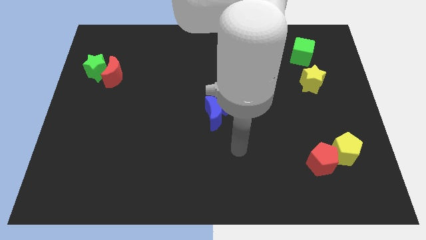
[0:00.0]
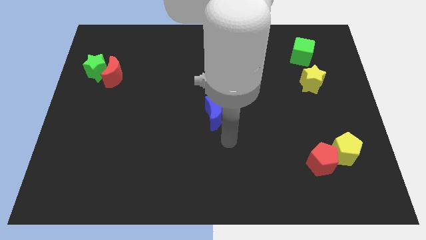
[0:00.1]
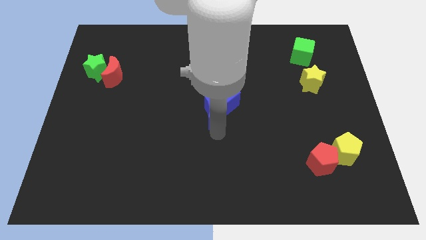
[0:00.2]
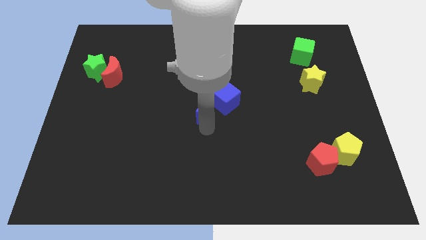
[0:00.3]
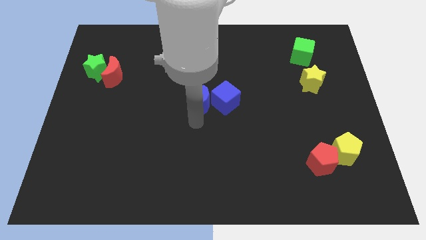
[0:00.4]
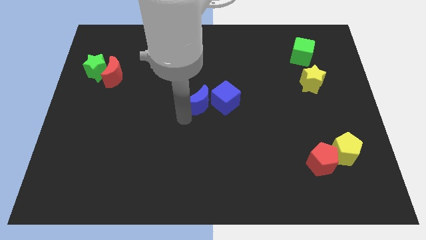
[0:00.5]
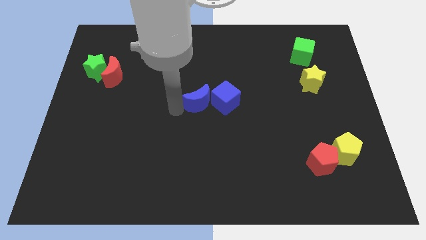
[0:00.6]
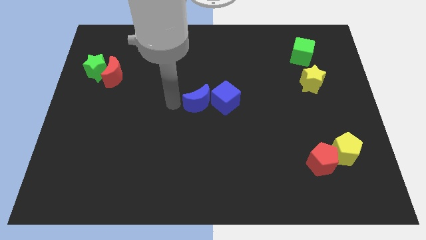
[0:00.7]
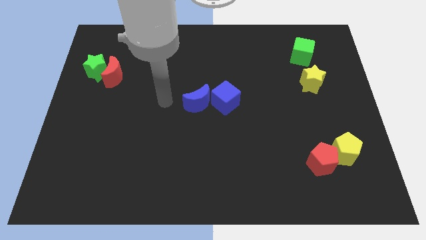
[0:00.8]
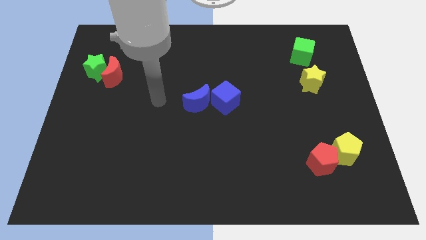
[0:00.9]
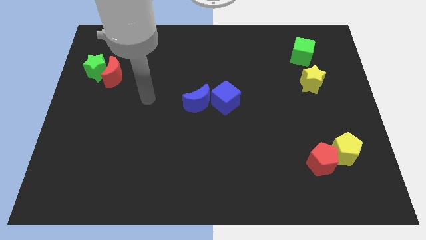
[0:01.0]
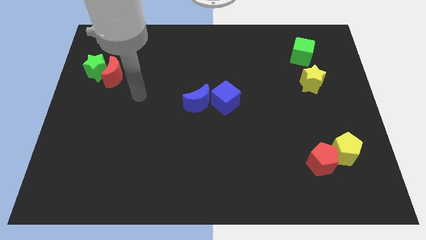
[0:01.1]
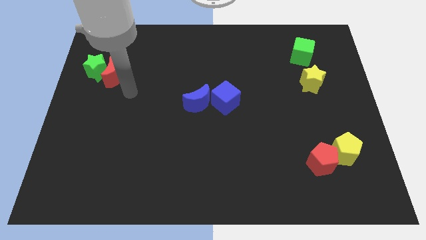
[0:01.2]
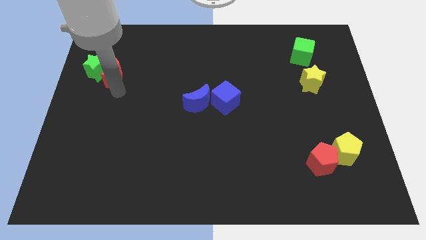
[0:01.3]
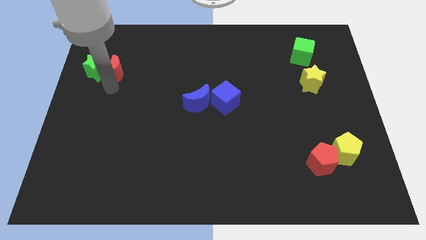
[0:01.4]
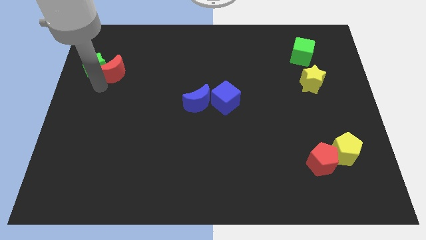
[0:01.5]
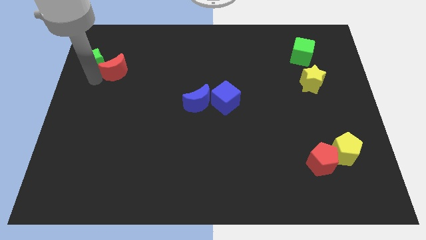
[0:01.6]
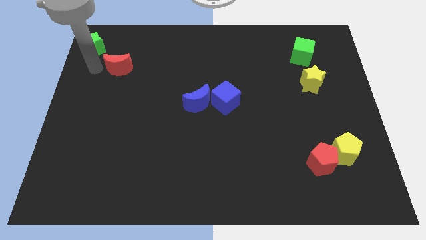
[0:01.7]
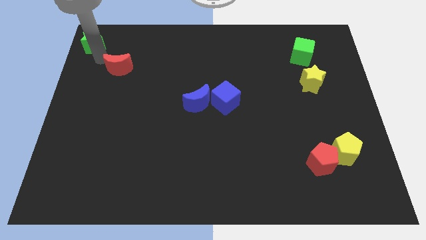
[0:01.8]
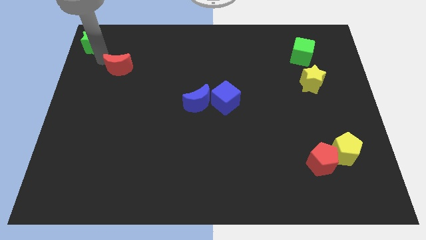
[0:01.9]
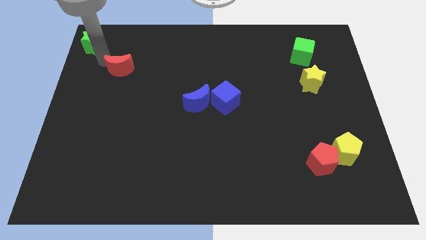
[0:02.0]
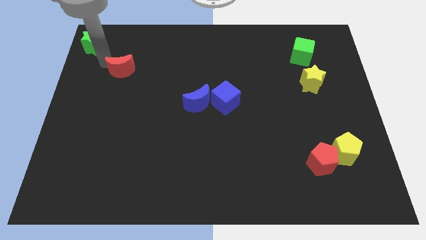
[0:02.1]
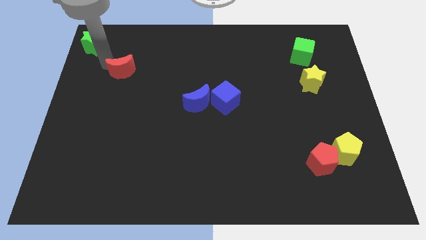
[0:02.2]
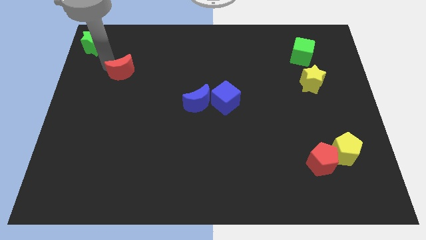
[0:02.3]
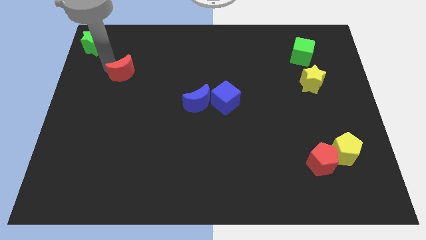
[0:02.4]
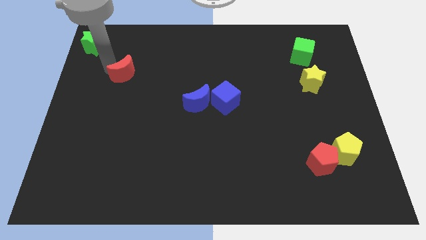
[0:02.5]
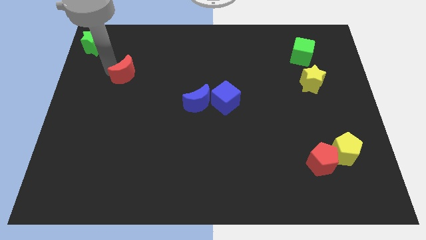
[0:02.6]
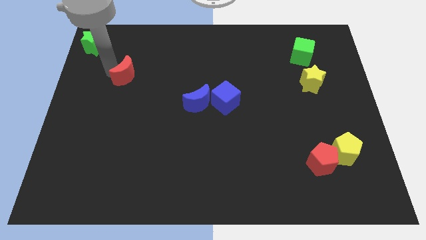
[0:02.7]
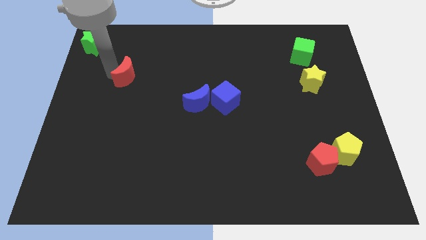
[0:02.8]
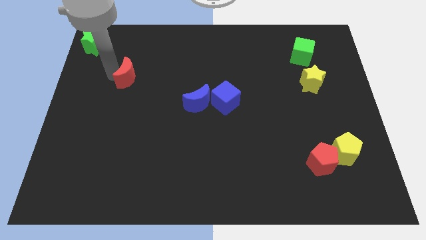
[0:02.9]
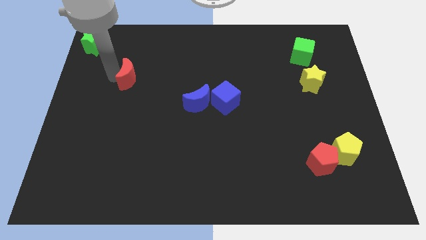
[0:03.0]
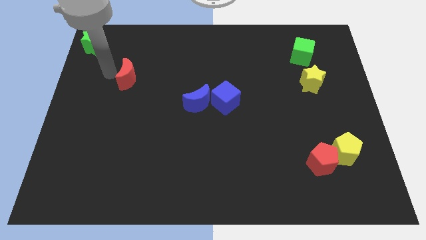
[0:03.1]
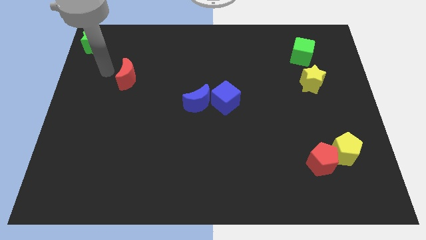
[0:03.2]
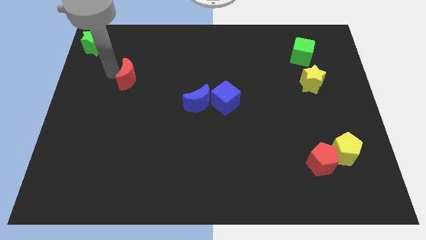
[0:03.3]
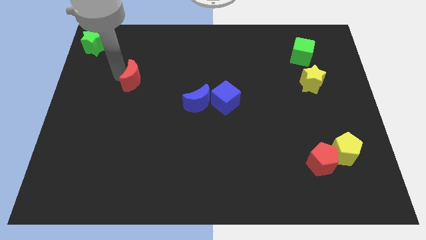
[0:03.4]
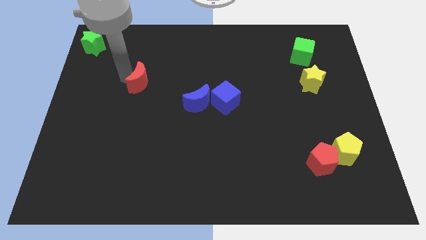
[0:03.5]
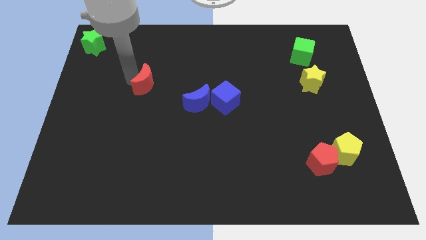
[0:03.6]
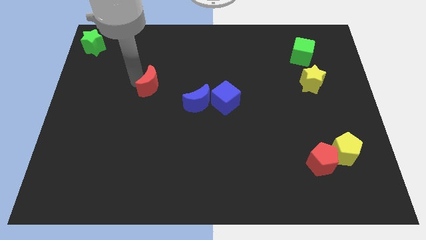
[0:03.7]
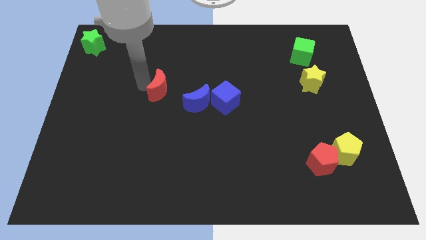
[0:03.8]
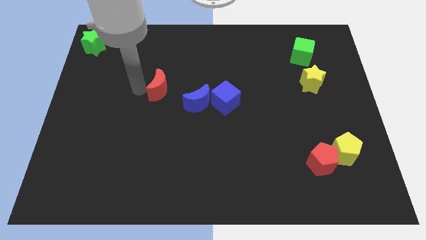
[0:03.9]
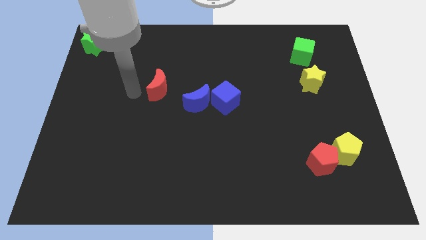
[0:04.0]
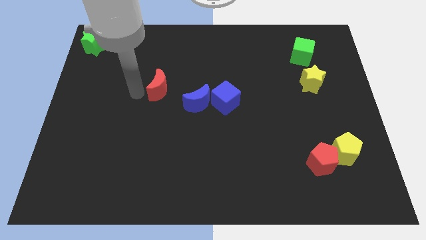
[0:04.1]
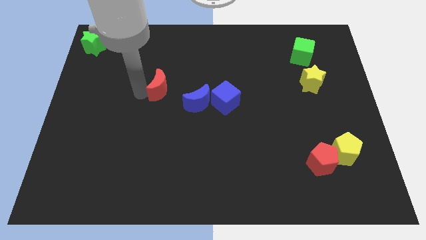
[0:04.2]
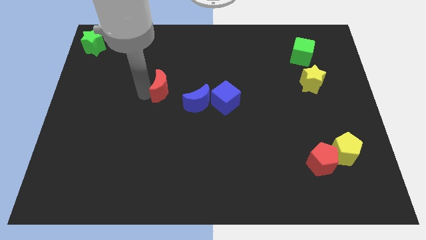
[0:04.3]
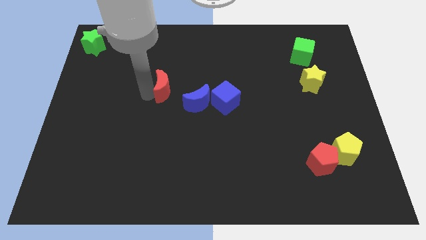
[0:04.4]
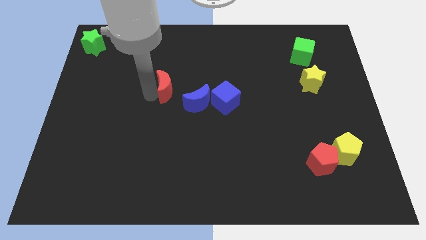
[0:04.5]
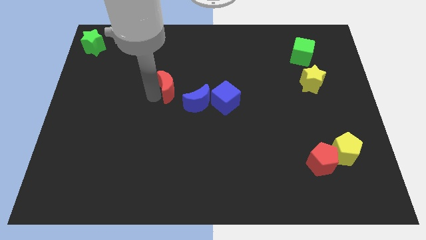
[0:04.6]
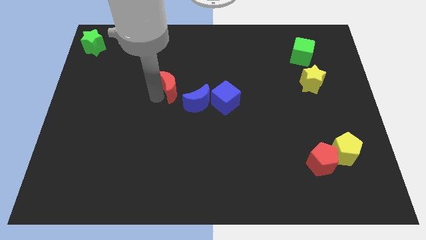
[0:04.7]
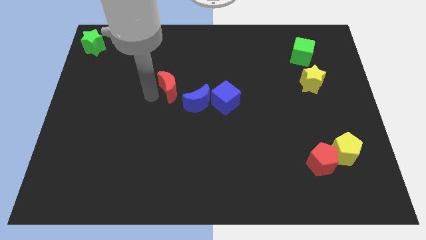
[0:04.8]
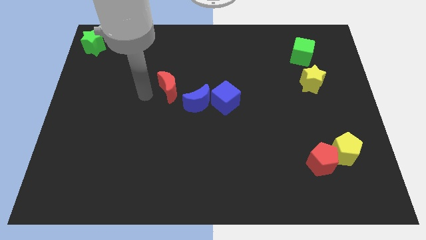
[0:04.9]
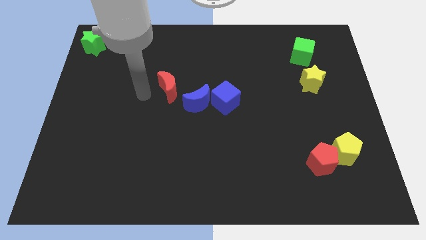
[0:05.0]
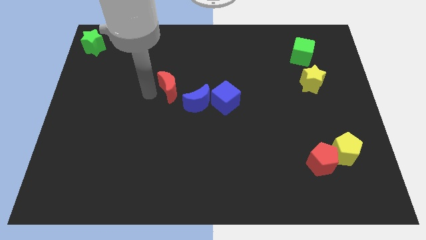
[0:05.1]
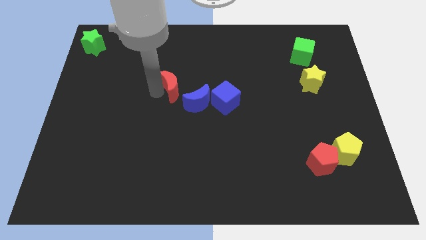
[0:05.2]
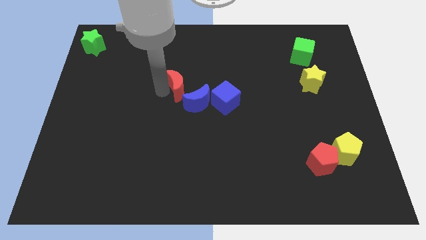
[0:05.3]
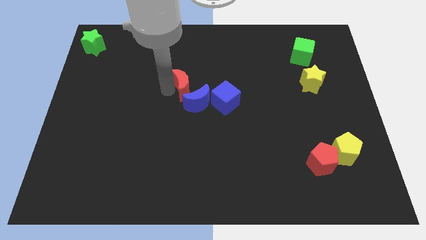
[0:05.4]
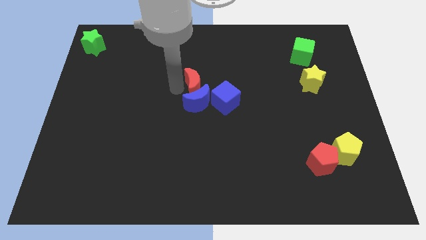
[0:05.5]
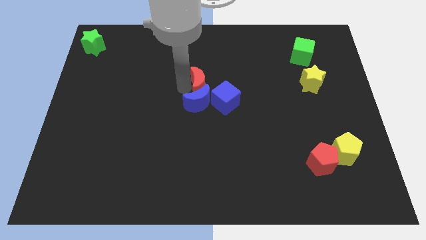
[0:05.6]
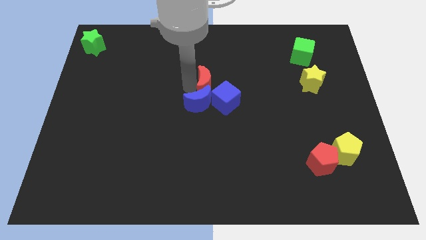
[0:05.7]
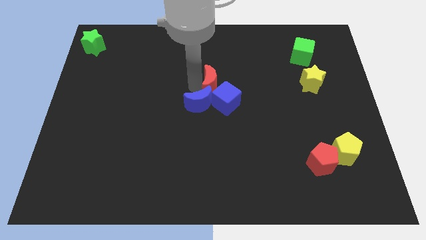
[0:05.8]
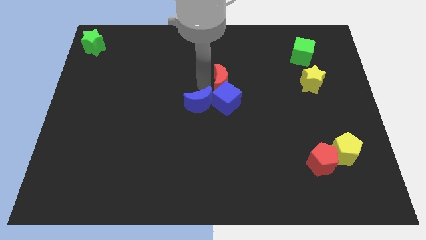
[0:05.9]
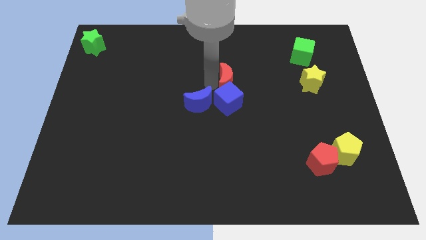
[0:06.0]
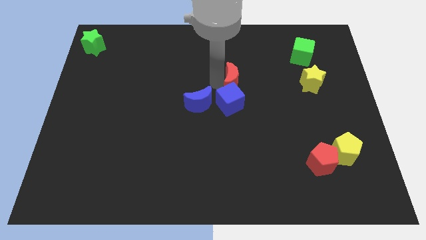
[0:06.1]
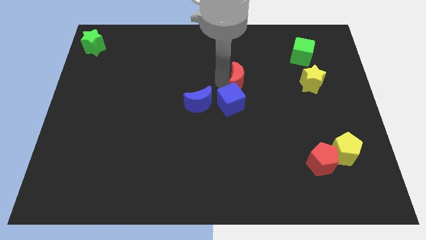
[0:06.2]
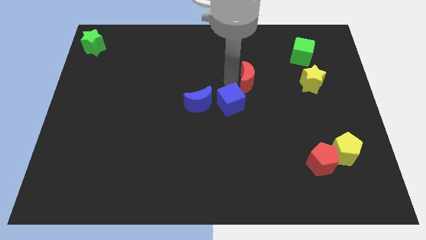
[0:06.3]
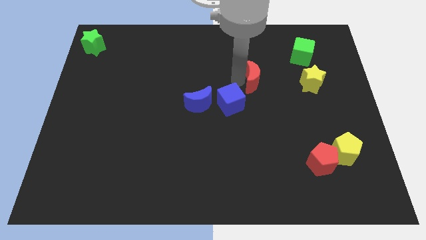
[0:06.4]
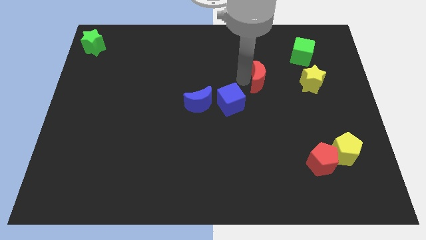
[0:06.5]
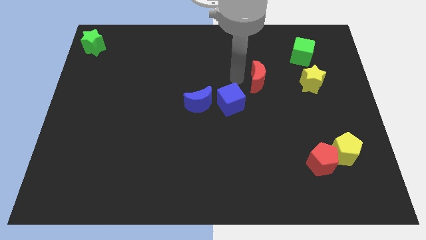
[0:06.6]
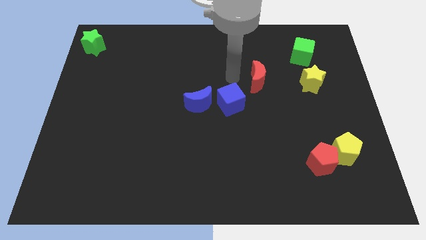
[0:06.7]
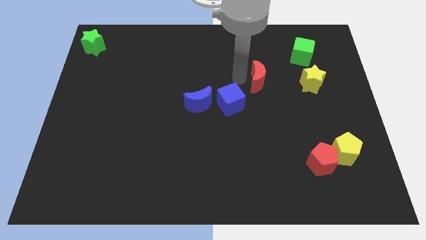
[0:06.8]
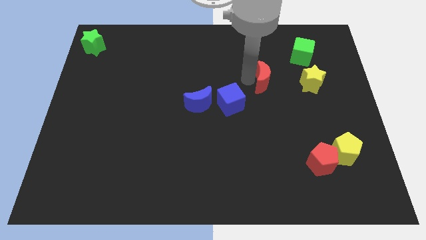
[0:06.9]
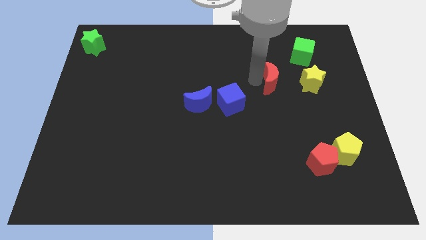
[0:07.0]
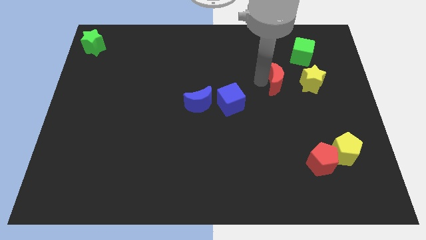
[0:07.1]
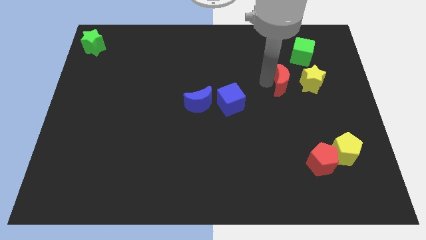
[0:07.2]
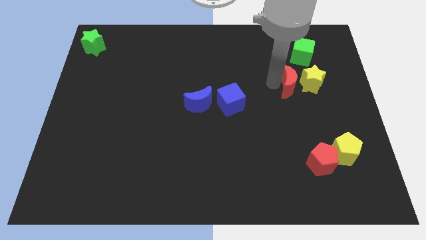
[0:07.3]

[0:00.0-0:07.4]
push the red moon next to the yellow star
